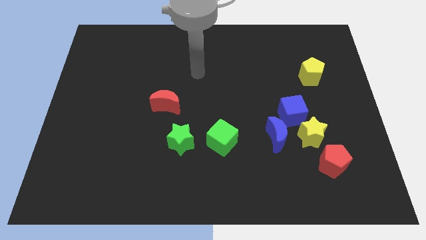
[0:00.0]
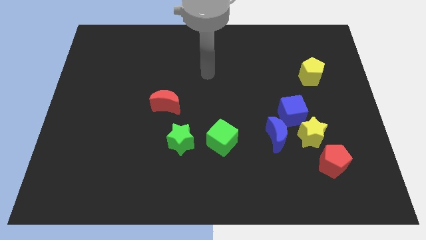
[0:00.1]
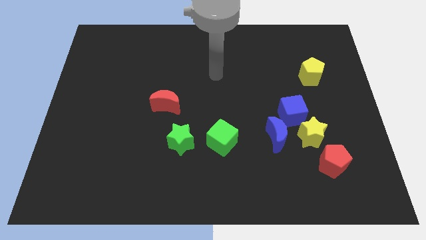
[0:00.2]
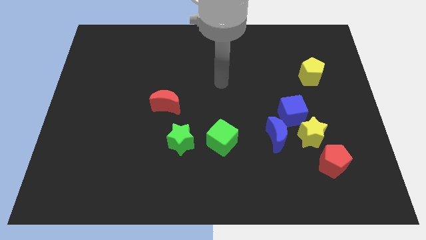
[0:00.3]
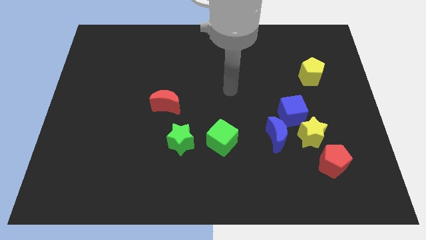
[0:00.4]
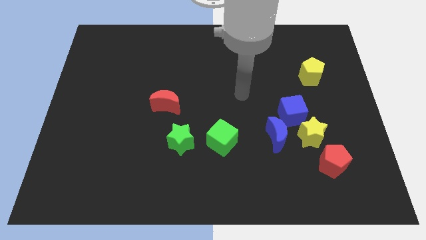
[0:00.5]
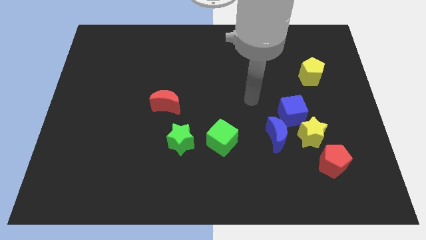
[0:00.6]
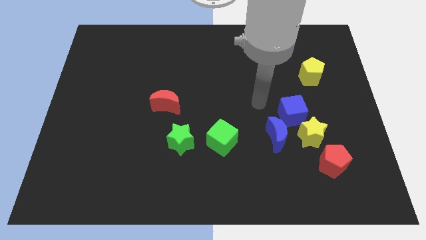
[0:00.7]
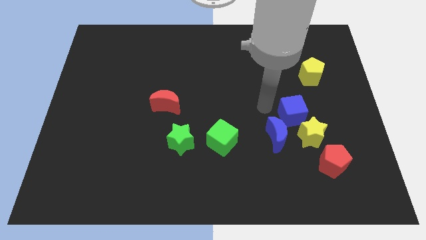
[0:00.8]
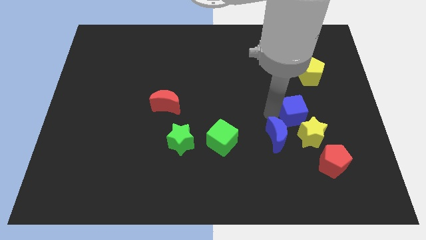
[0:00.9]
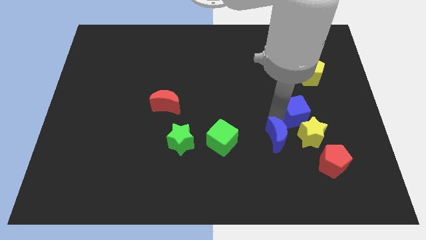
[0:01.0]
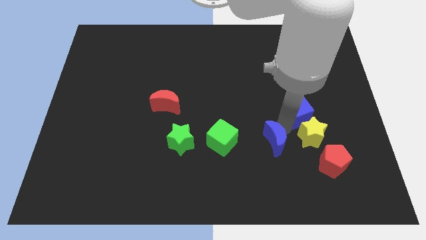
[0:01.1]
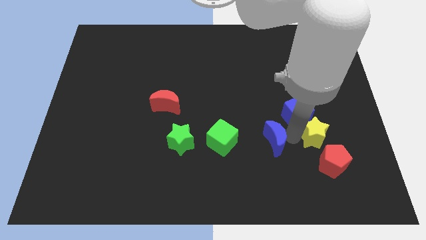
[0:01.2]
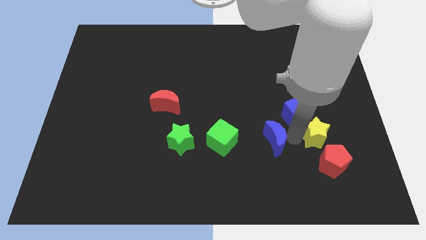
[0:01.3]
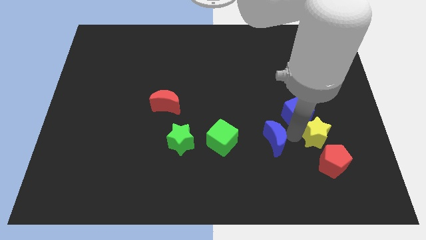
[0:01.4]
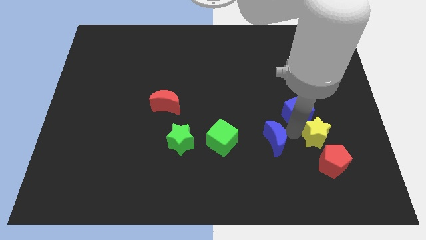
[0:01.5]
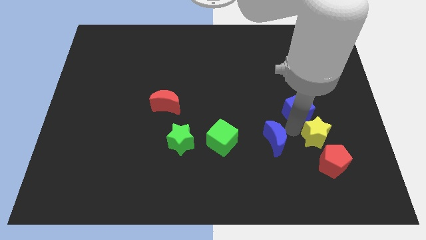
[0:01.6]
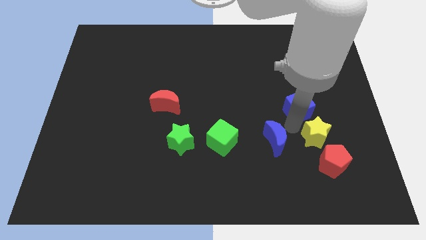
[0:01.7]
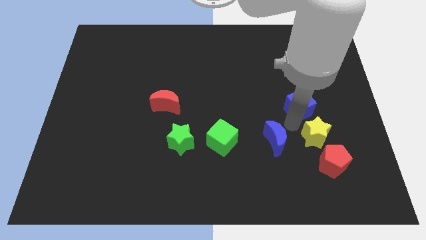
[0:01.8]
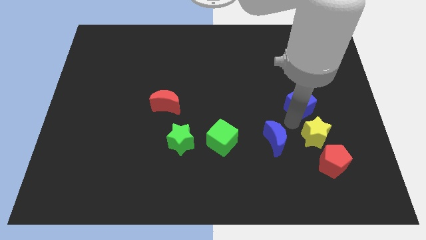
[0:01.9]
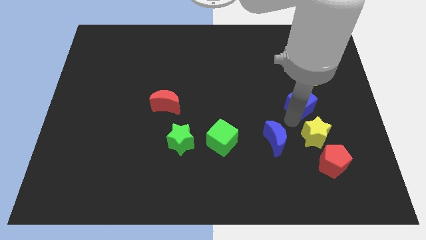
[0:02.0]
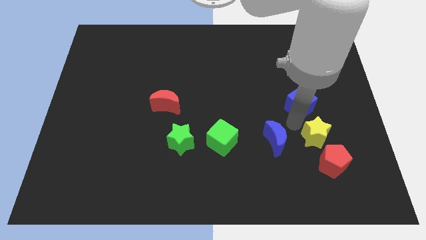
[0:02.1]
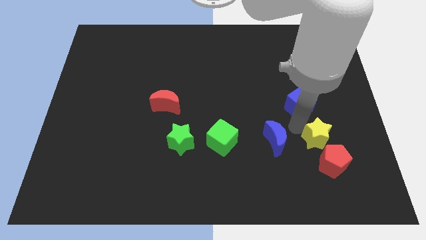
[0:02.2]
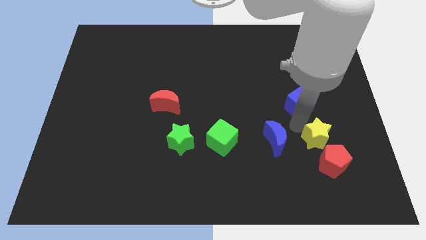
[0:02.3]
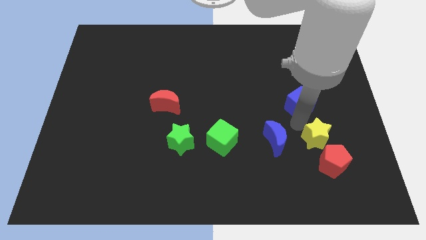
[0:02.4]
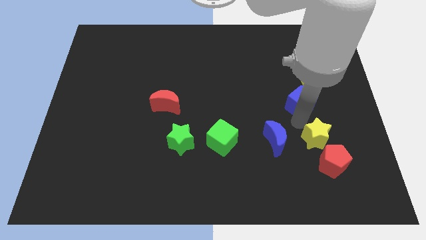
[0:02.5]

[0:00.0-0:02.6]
separate the blue cube from the yellow star and blue moon

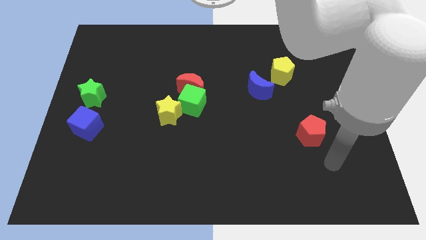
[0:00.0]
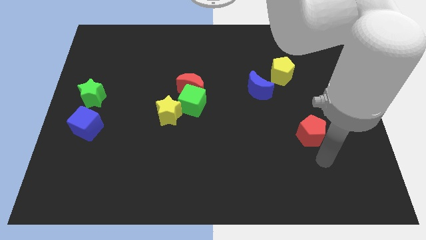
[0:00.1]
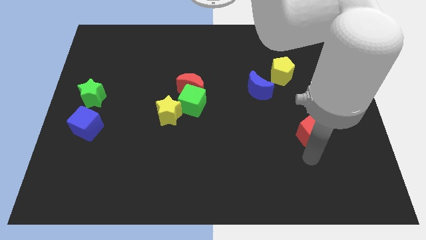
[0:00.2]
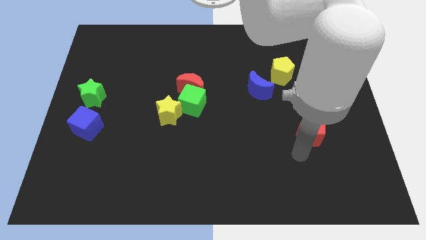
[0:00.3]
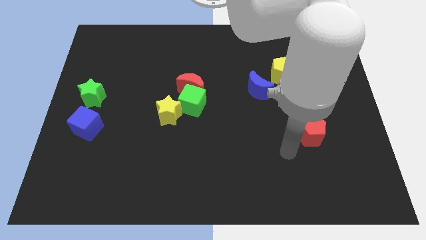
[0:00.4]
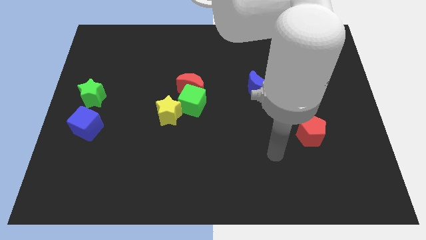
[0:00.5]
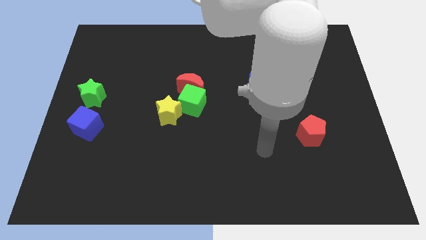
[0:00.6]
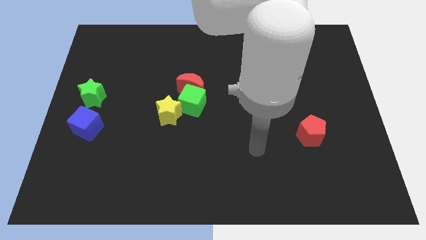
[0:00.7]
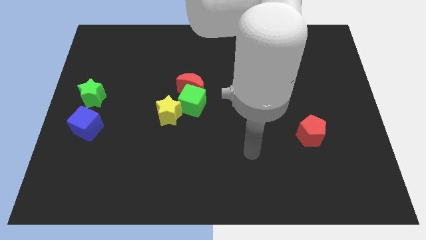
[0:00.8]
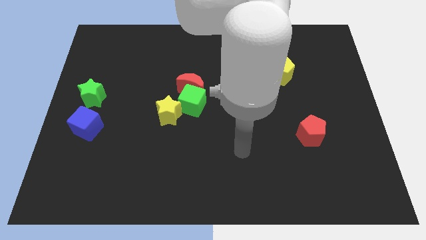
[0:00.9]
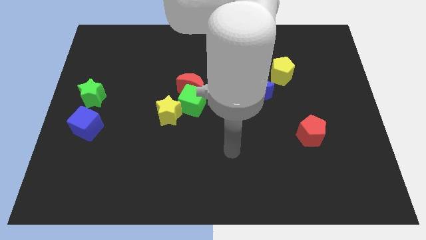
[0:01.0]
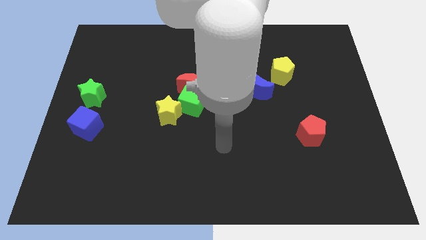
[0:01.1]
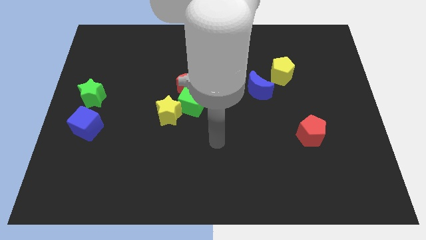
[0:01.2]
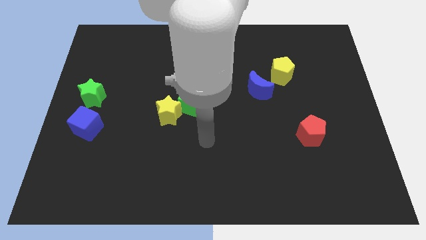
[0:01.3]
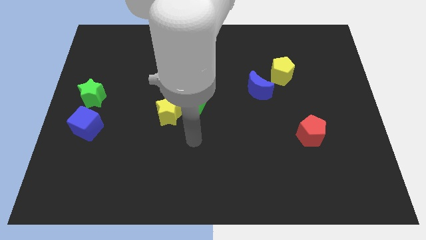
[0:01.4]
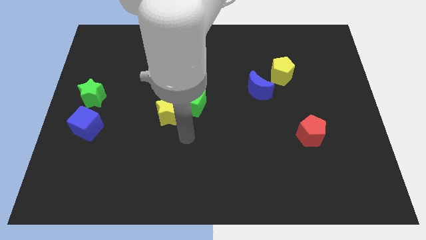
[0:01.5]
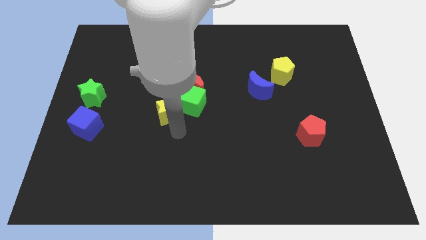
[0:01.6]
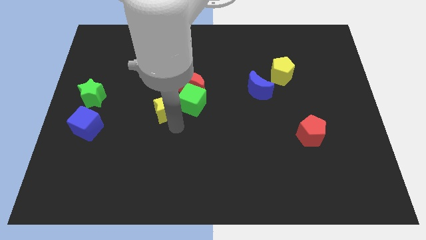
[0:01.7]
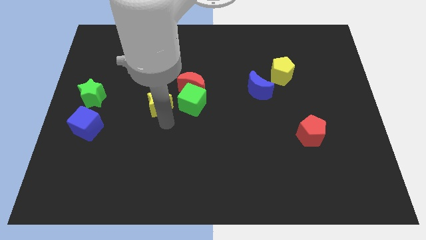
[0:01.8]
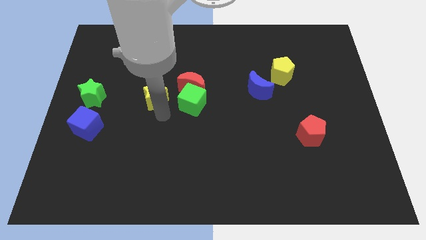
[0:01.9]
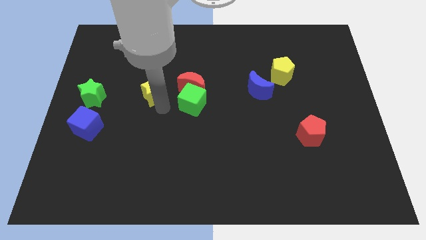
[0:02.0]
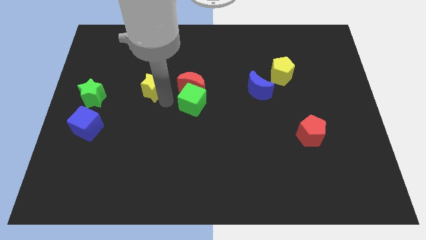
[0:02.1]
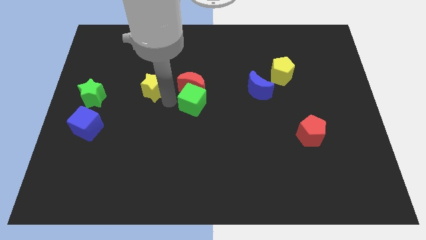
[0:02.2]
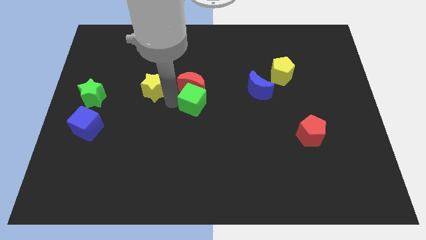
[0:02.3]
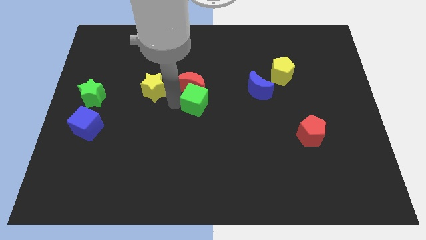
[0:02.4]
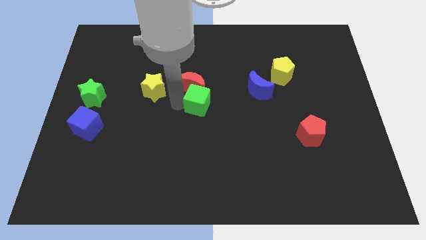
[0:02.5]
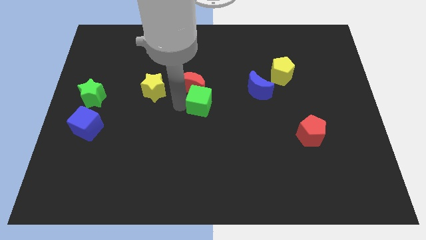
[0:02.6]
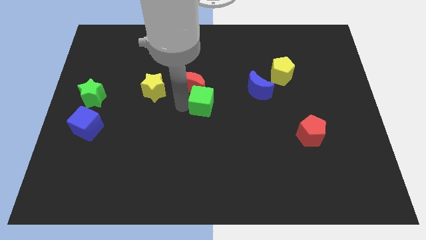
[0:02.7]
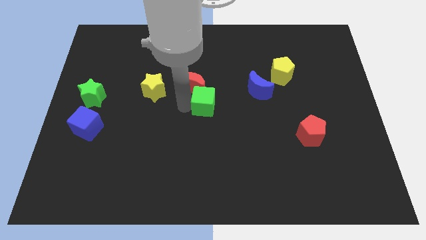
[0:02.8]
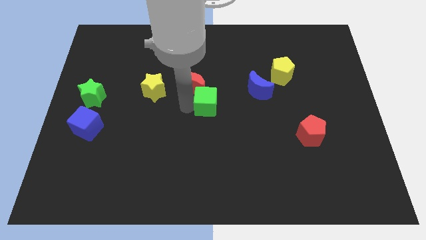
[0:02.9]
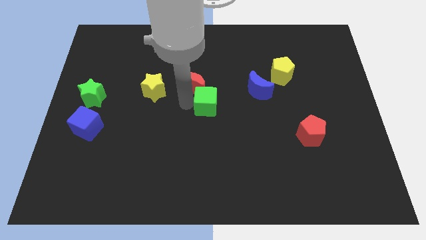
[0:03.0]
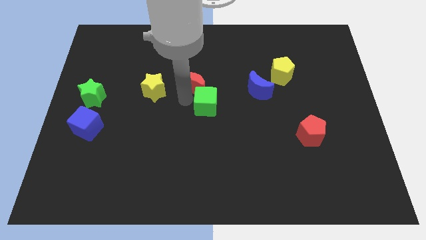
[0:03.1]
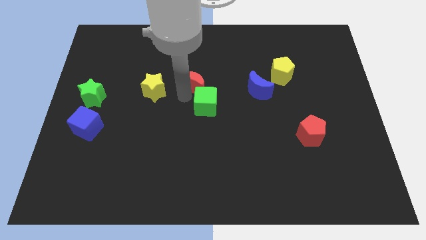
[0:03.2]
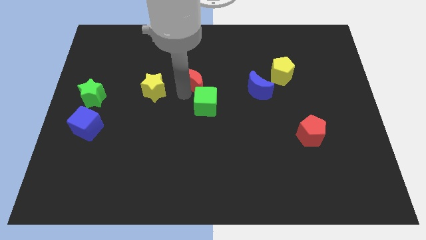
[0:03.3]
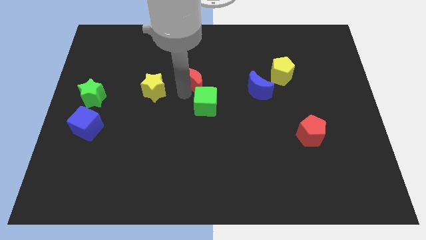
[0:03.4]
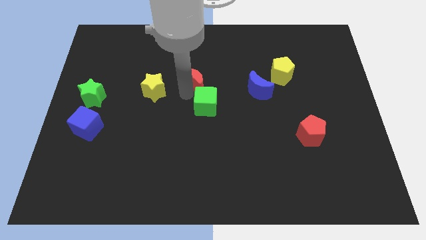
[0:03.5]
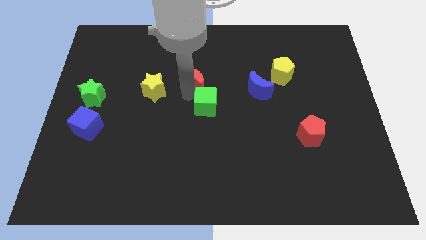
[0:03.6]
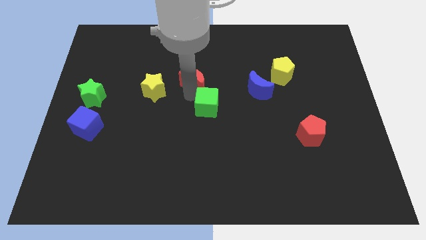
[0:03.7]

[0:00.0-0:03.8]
separate the green cube from the red moon and yellow star

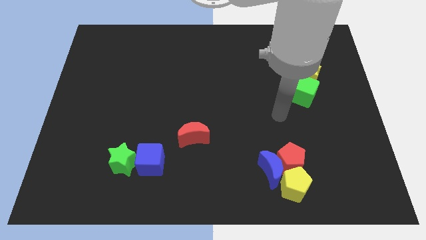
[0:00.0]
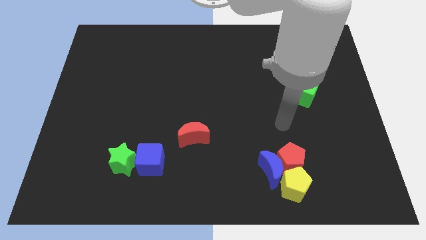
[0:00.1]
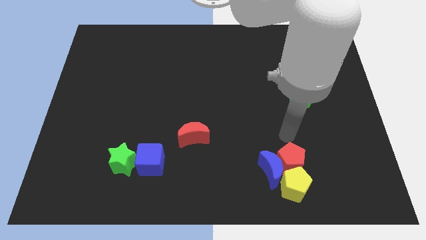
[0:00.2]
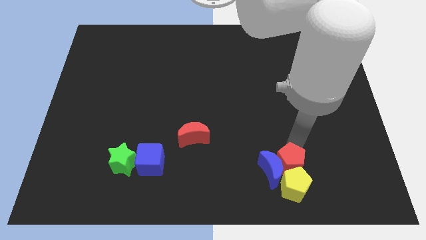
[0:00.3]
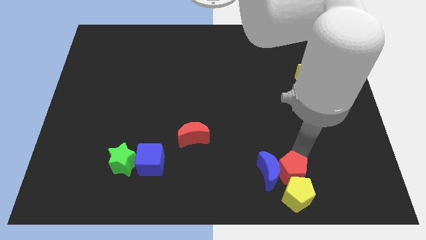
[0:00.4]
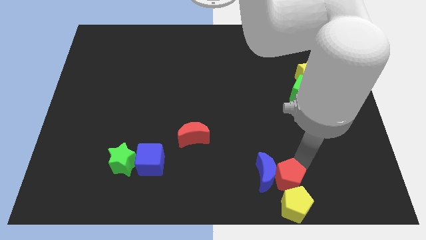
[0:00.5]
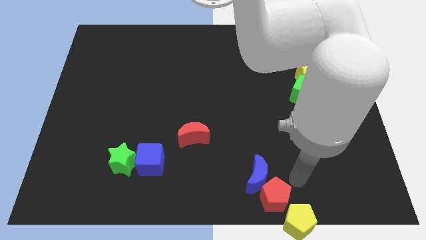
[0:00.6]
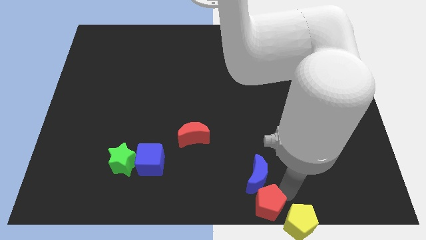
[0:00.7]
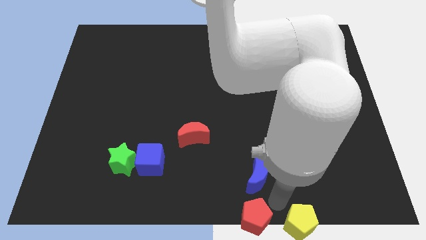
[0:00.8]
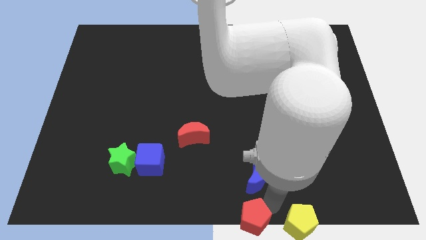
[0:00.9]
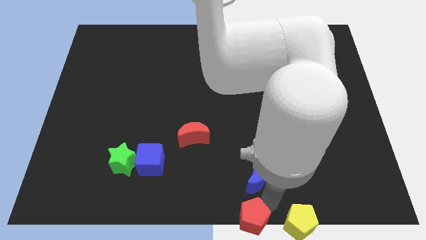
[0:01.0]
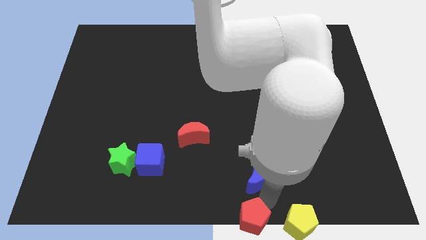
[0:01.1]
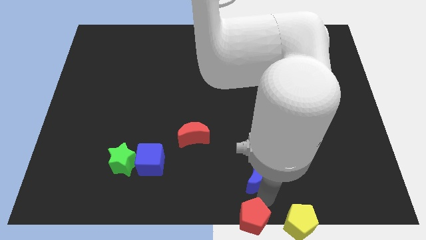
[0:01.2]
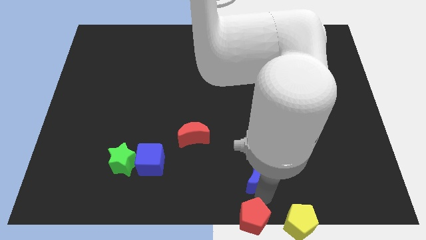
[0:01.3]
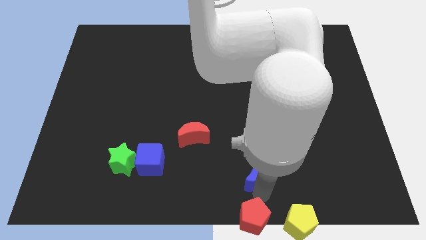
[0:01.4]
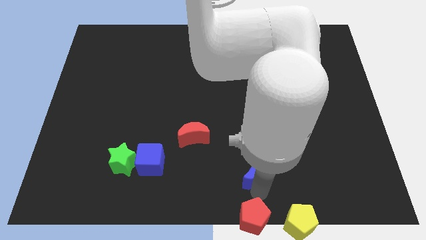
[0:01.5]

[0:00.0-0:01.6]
separate the blue moon from the red pentagon and yellow pentagon

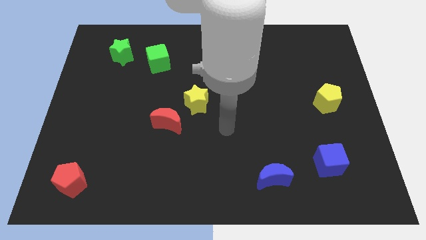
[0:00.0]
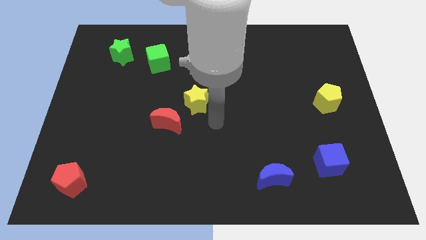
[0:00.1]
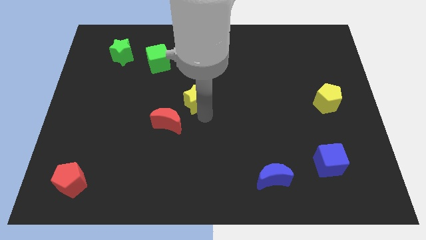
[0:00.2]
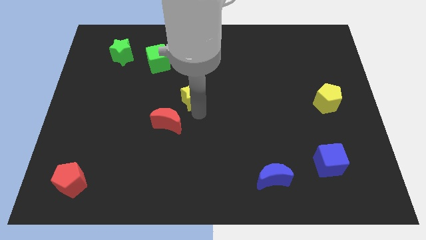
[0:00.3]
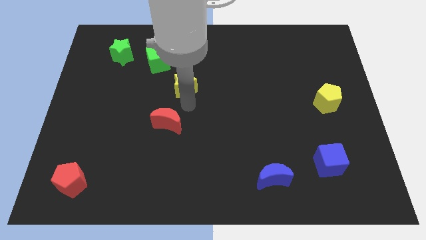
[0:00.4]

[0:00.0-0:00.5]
separate the red moon from the yellow star

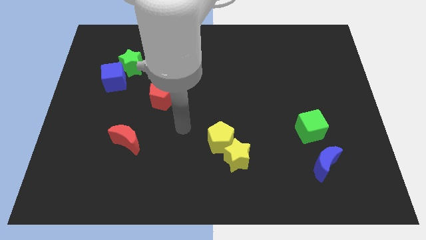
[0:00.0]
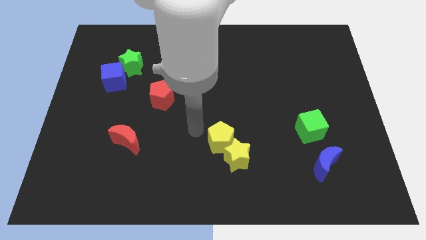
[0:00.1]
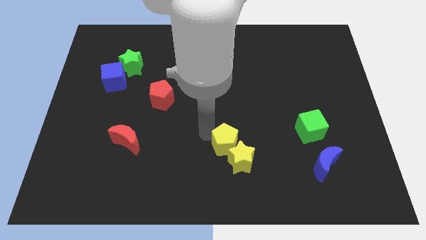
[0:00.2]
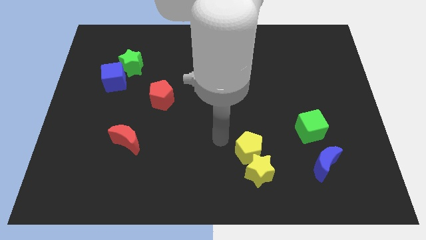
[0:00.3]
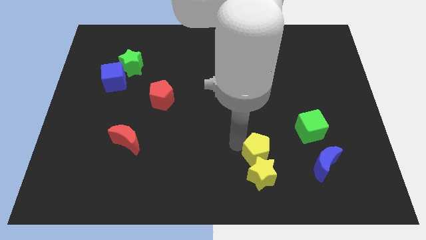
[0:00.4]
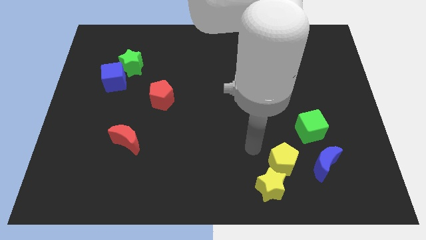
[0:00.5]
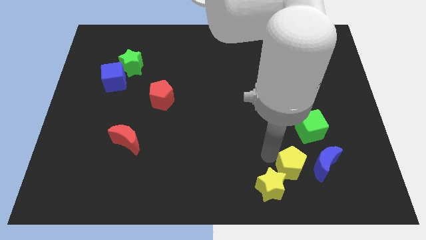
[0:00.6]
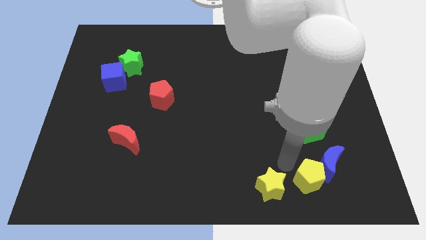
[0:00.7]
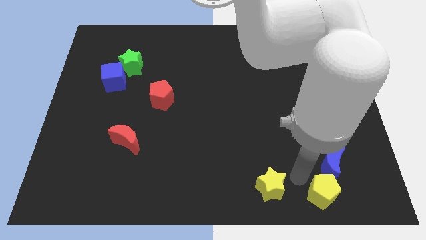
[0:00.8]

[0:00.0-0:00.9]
move the yellow star away from the yellow pentagon

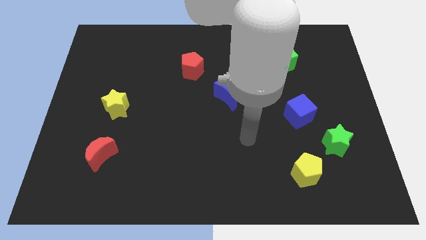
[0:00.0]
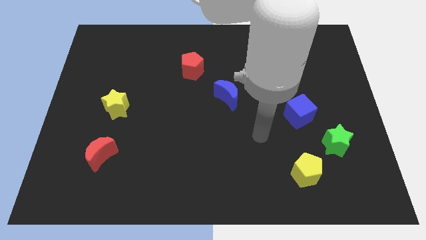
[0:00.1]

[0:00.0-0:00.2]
move the blue cube away from the green star
